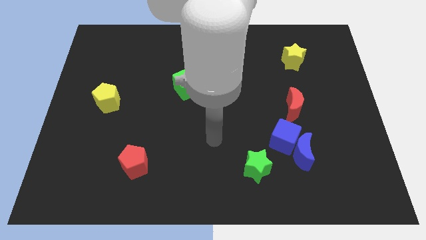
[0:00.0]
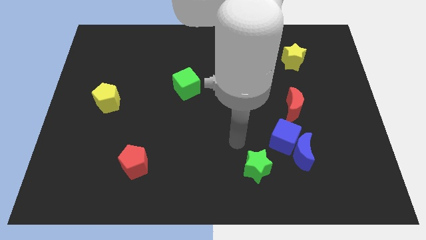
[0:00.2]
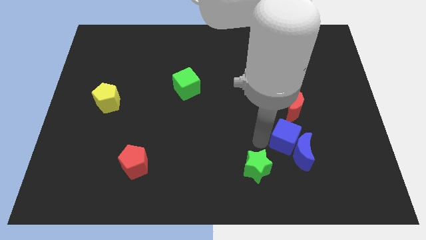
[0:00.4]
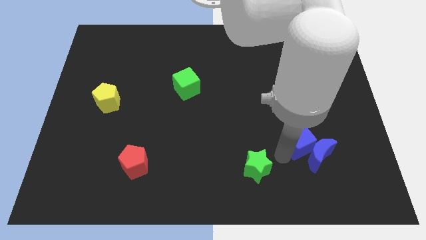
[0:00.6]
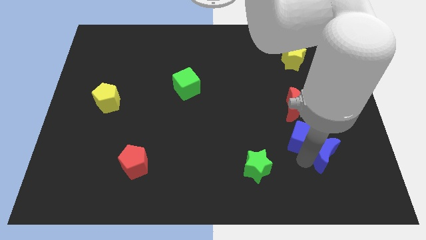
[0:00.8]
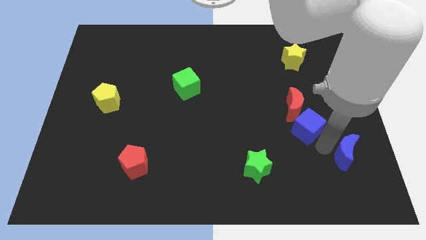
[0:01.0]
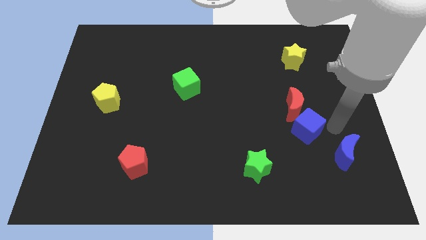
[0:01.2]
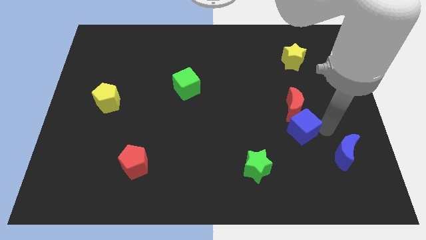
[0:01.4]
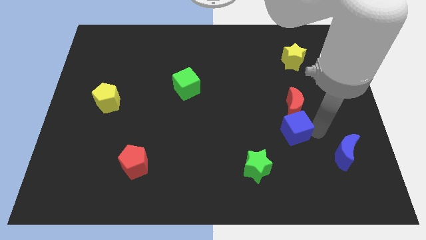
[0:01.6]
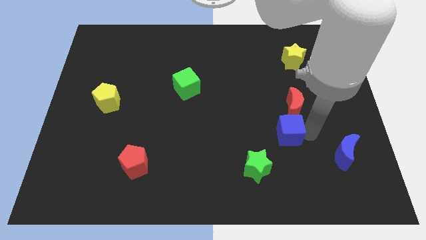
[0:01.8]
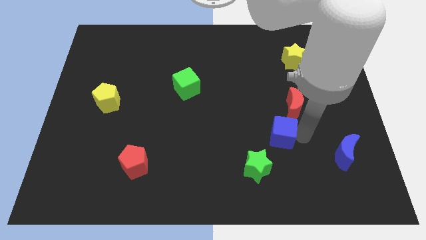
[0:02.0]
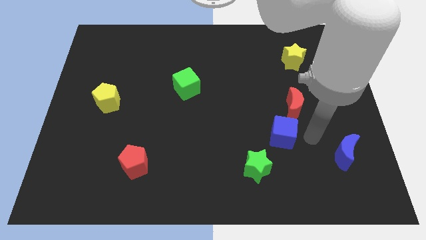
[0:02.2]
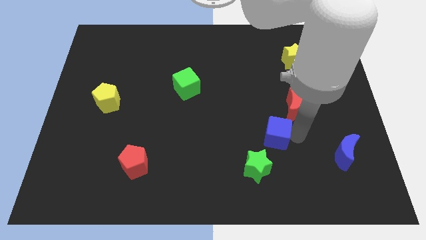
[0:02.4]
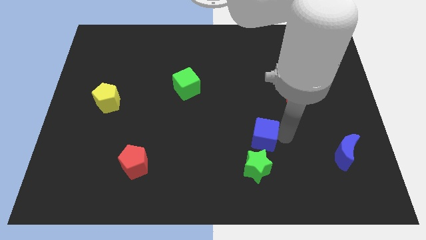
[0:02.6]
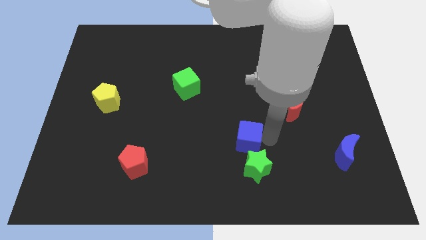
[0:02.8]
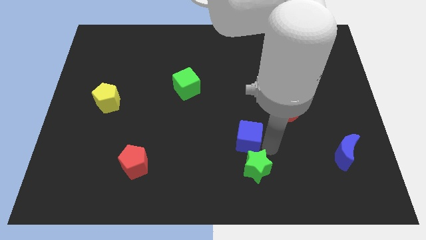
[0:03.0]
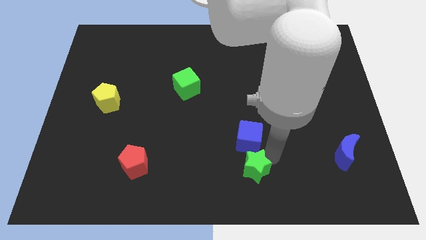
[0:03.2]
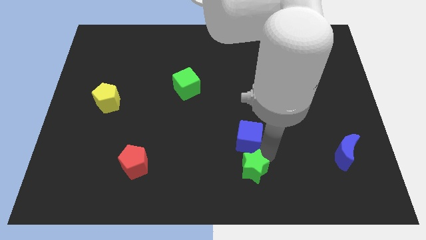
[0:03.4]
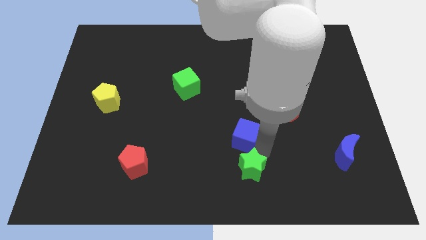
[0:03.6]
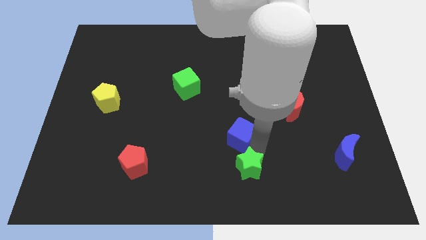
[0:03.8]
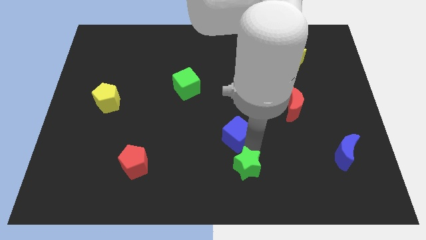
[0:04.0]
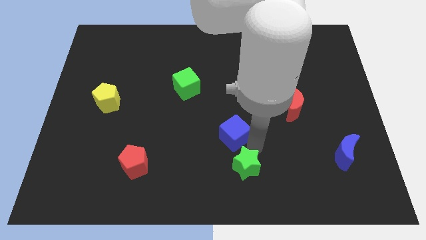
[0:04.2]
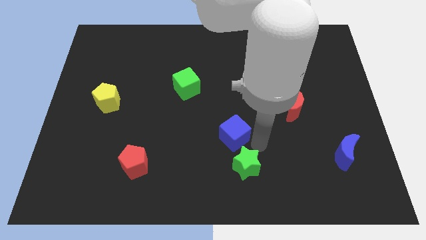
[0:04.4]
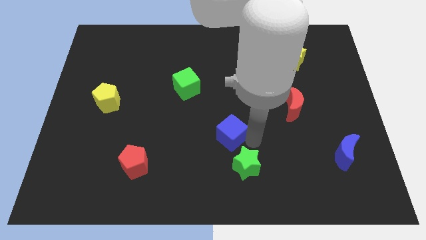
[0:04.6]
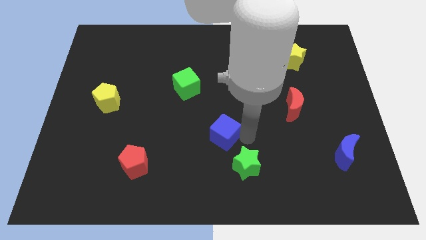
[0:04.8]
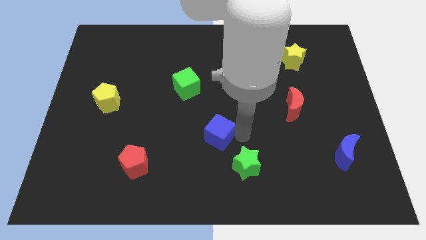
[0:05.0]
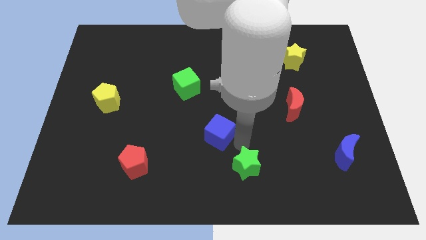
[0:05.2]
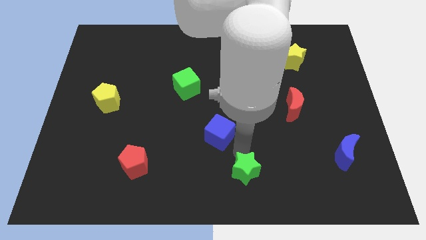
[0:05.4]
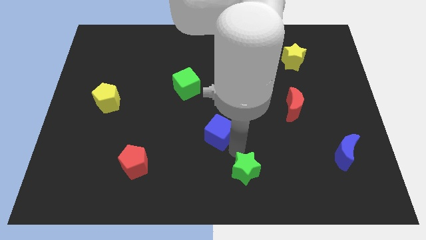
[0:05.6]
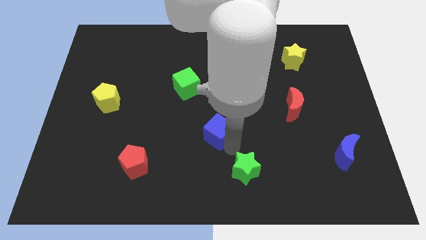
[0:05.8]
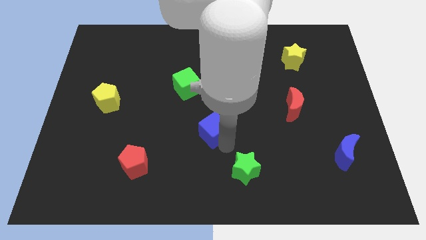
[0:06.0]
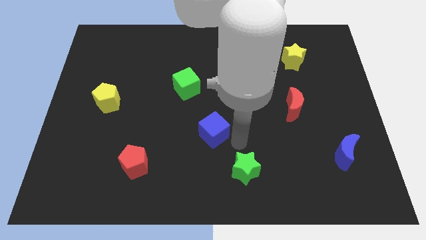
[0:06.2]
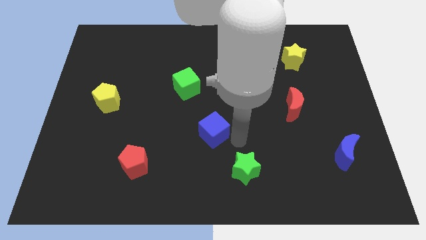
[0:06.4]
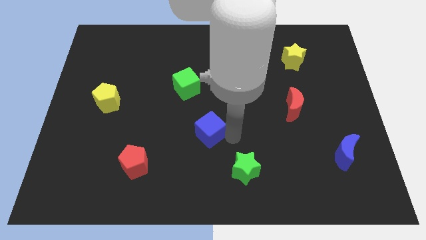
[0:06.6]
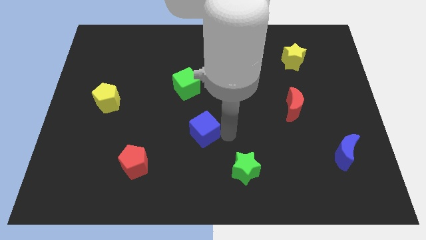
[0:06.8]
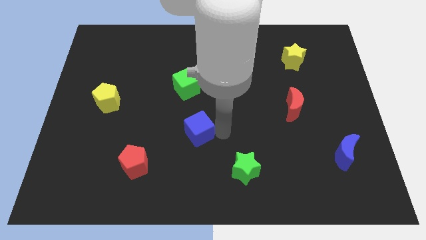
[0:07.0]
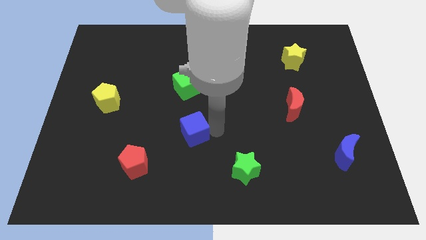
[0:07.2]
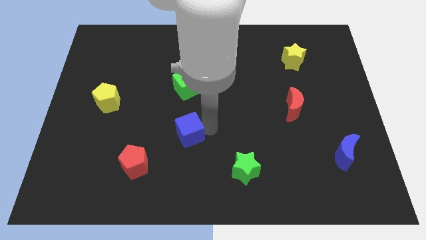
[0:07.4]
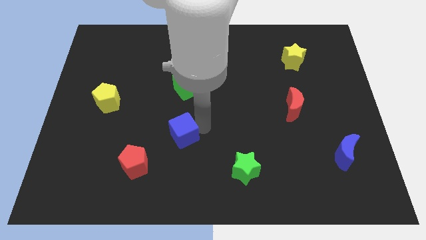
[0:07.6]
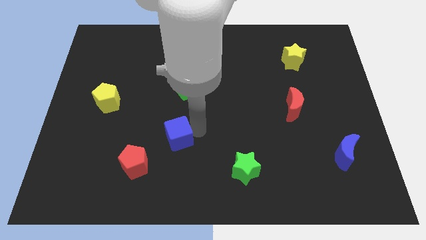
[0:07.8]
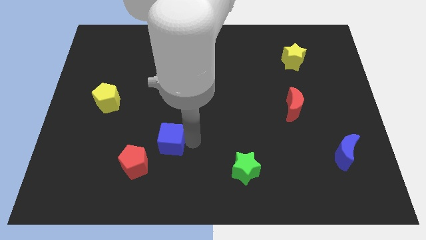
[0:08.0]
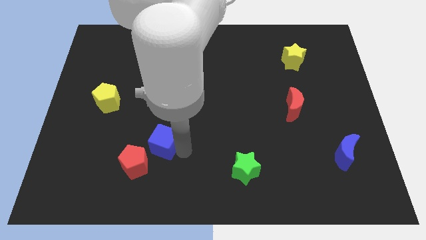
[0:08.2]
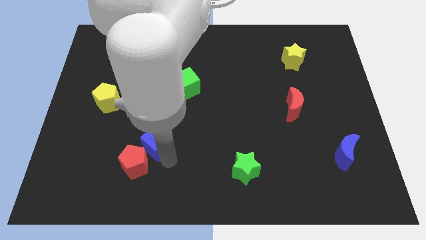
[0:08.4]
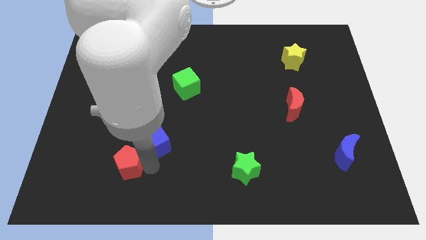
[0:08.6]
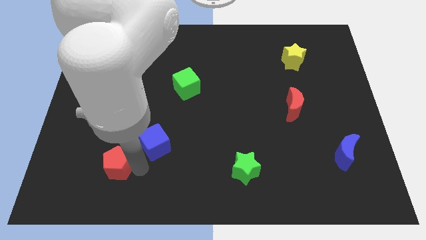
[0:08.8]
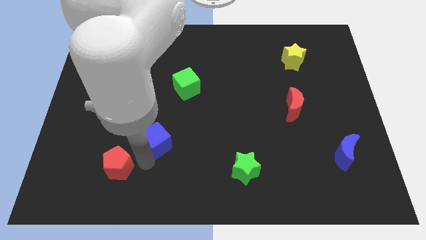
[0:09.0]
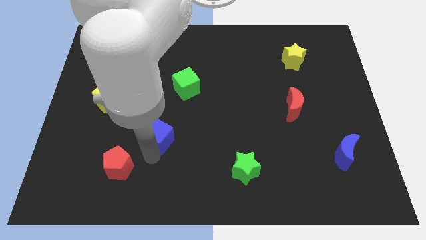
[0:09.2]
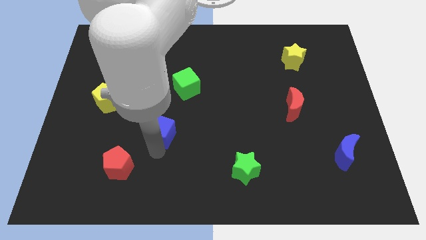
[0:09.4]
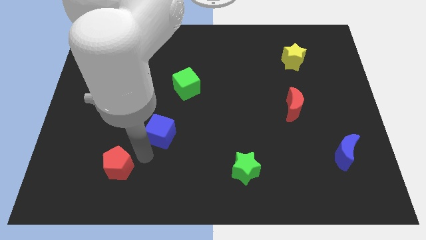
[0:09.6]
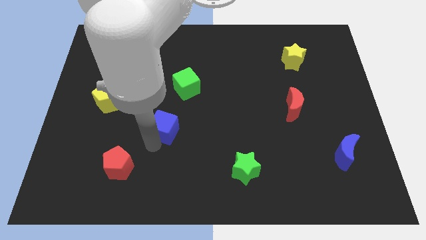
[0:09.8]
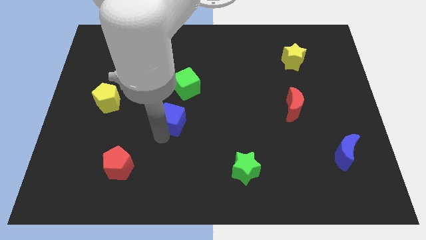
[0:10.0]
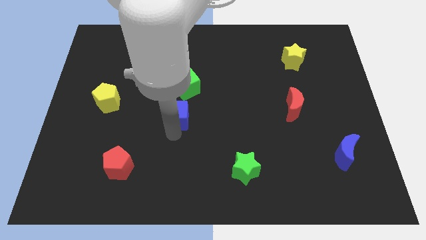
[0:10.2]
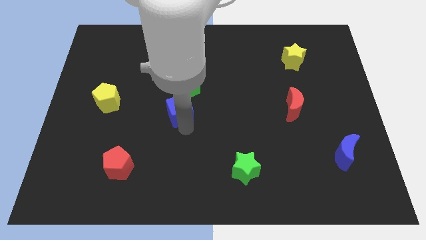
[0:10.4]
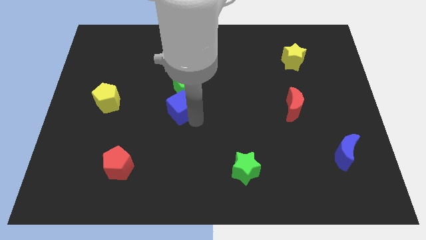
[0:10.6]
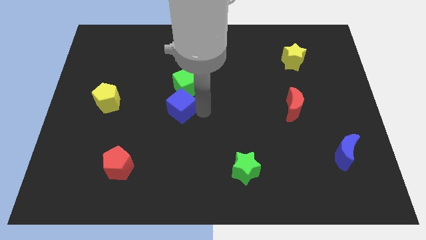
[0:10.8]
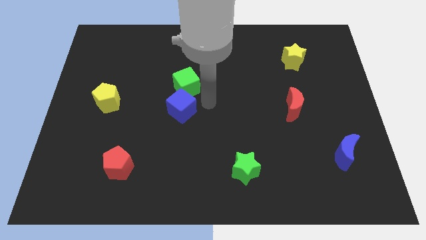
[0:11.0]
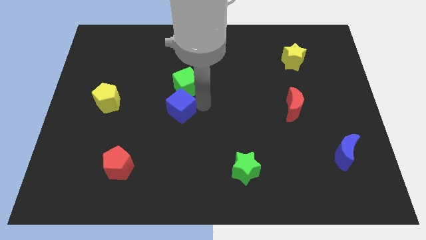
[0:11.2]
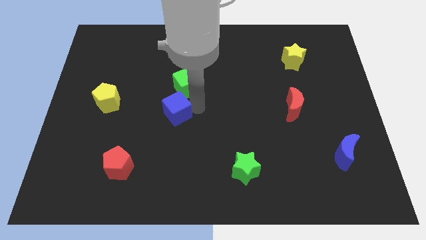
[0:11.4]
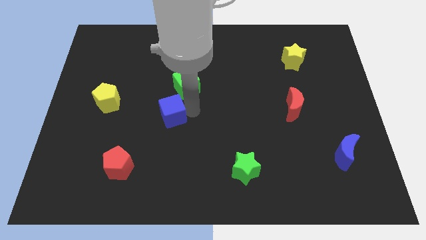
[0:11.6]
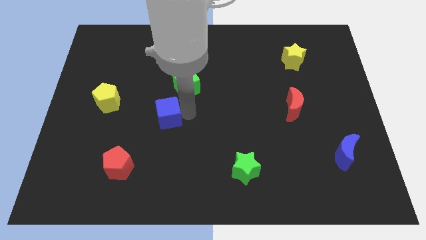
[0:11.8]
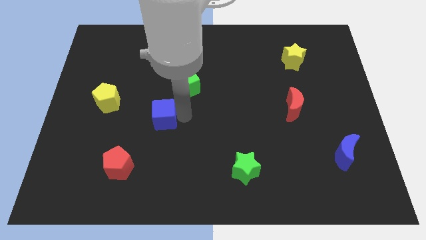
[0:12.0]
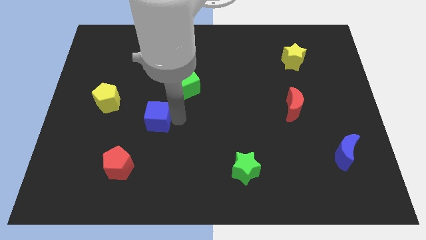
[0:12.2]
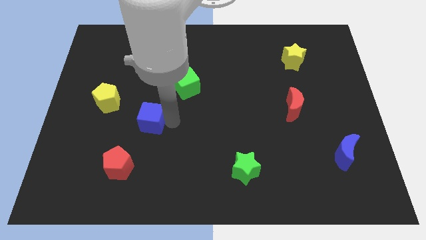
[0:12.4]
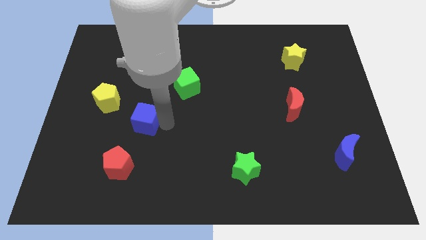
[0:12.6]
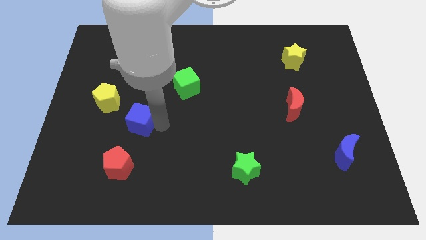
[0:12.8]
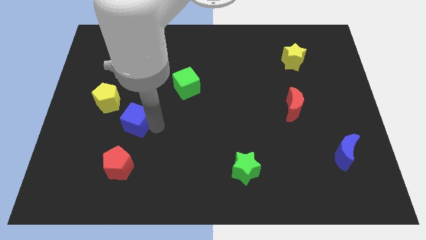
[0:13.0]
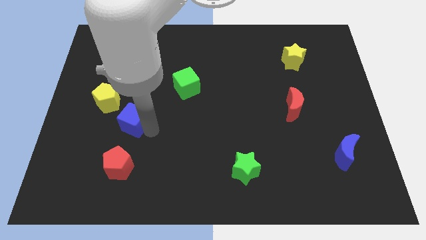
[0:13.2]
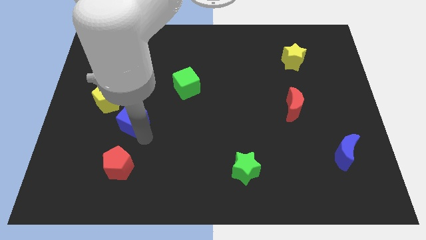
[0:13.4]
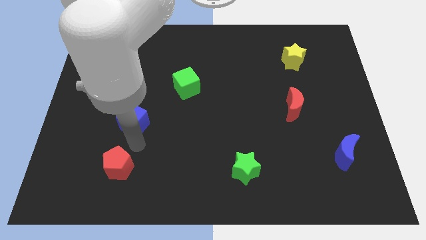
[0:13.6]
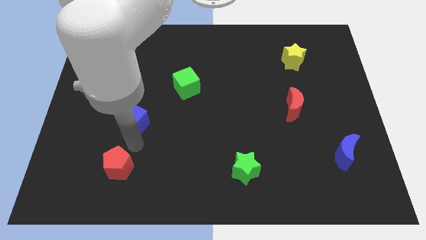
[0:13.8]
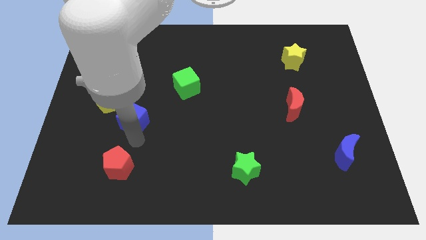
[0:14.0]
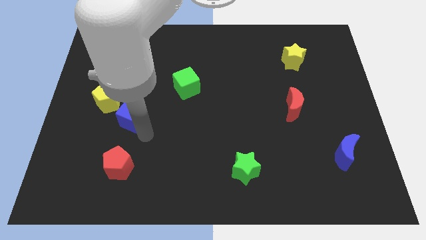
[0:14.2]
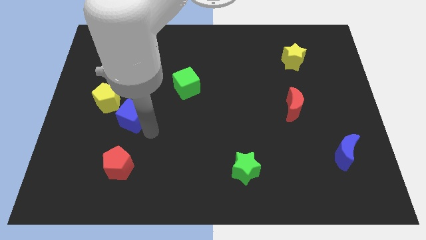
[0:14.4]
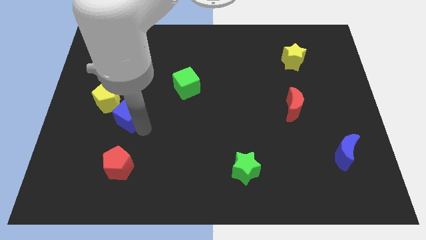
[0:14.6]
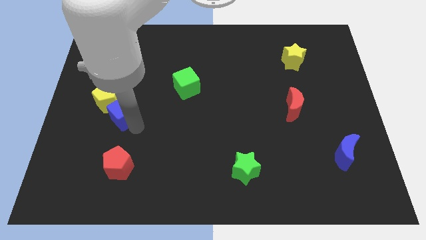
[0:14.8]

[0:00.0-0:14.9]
put the blue cube towards the yellow pentagon

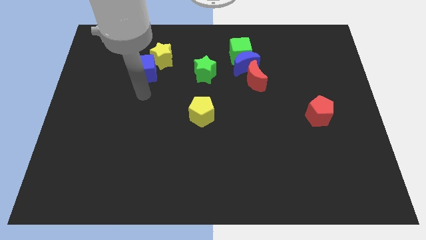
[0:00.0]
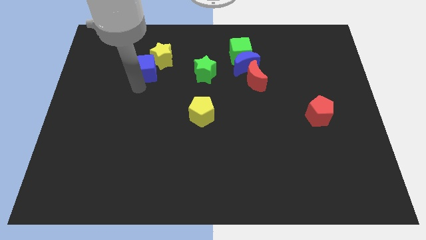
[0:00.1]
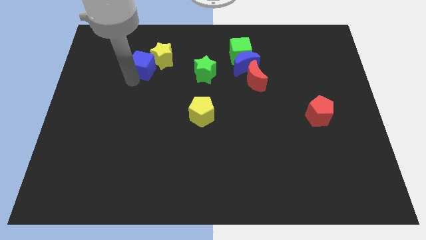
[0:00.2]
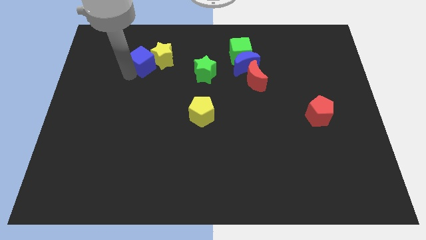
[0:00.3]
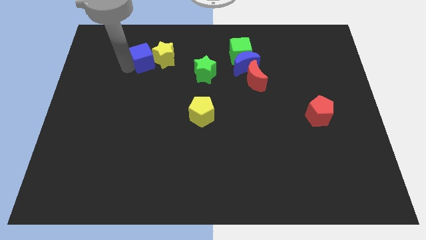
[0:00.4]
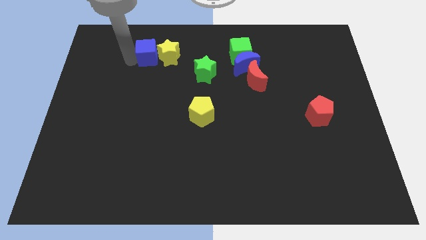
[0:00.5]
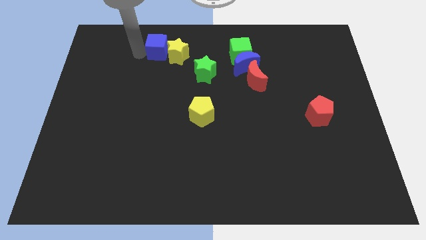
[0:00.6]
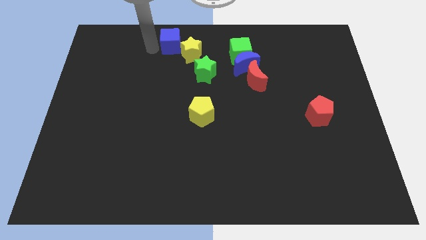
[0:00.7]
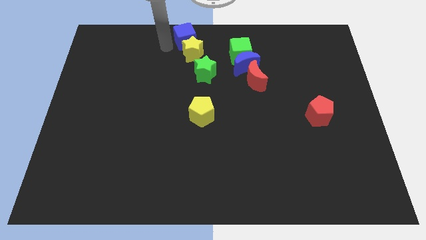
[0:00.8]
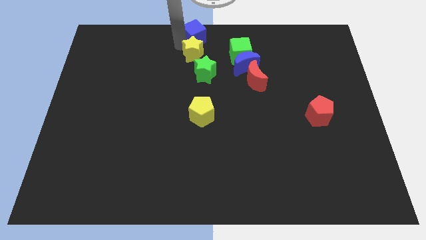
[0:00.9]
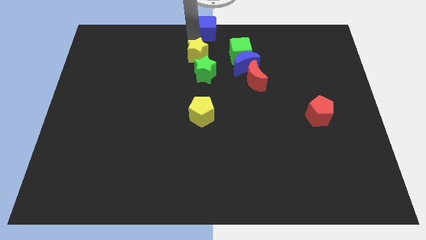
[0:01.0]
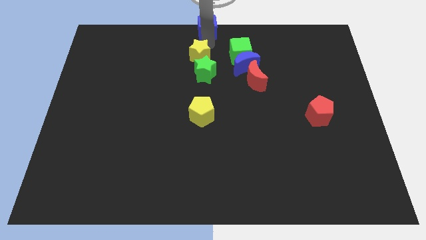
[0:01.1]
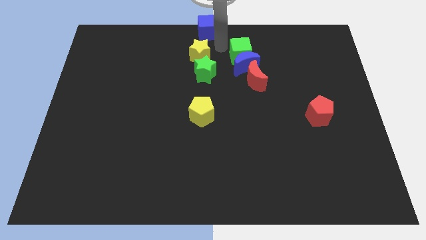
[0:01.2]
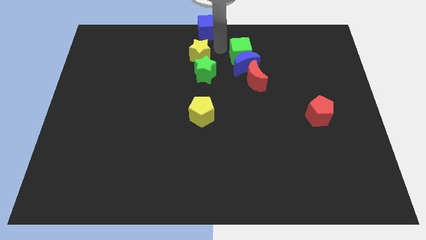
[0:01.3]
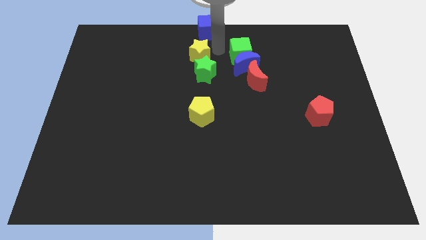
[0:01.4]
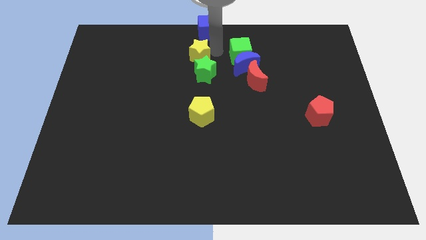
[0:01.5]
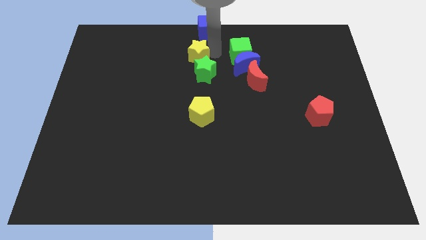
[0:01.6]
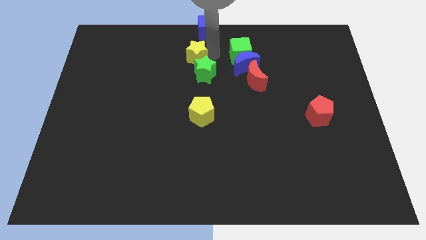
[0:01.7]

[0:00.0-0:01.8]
move the yellow star towards the green star
